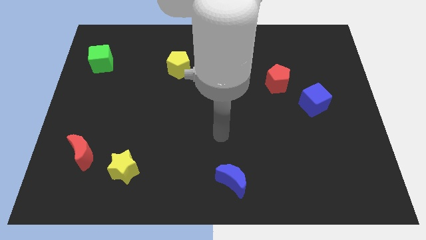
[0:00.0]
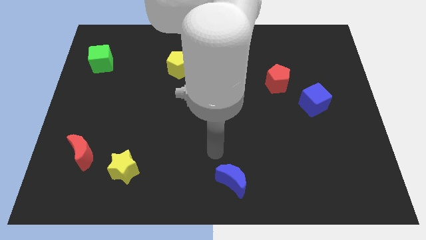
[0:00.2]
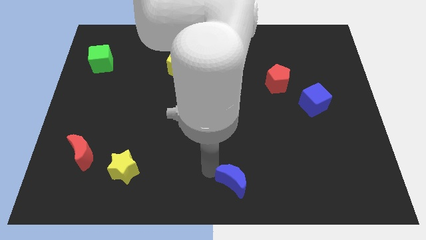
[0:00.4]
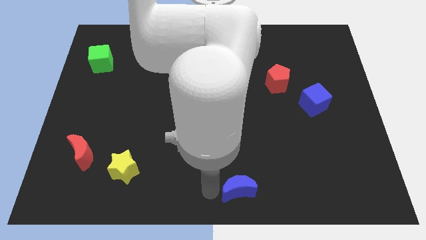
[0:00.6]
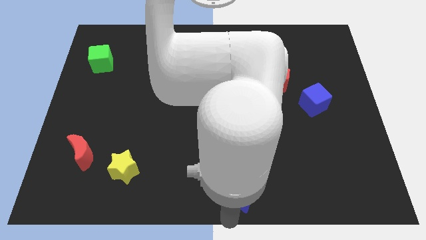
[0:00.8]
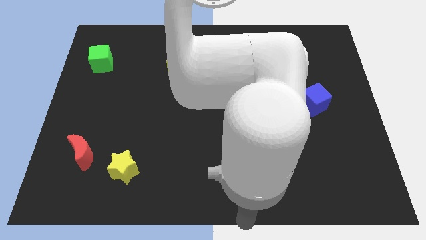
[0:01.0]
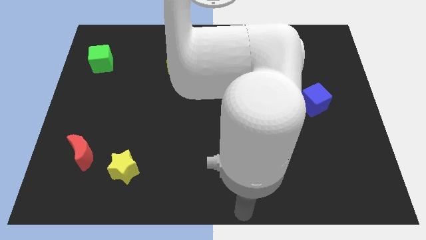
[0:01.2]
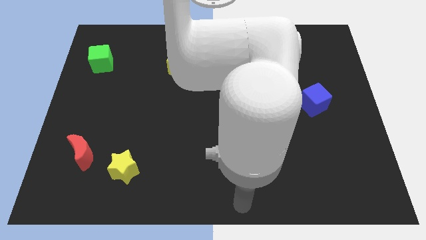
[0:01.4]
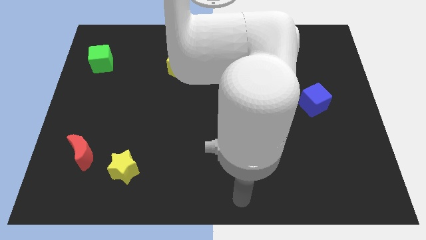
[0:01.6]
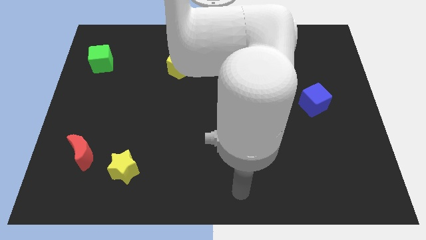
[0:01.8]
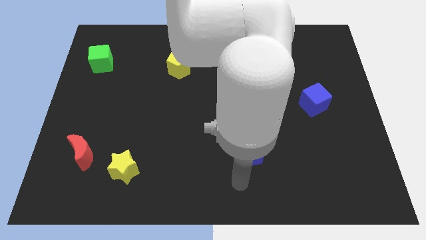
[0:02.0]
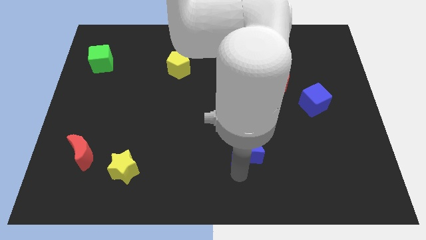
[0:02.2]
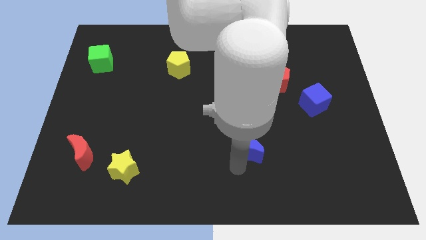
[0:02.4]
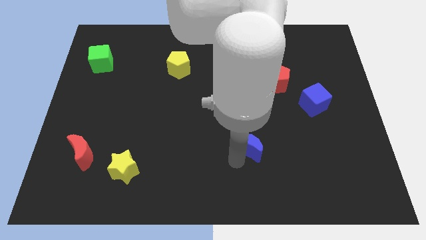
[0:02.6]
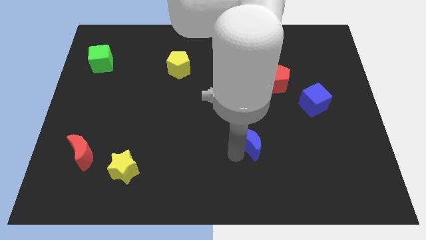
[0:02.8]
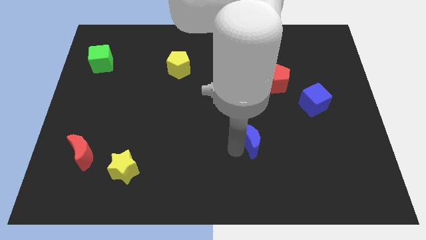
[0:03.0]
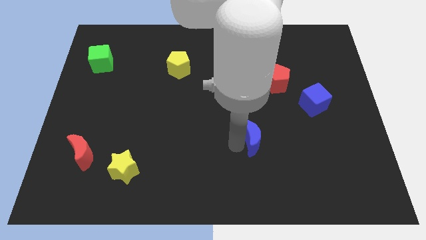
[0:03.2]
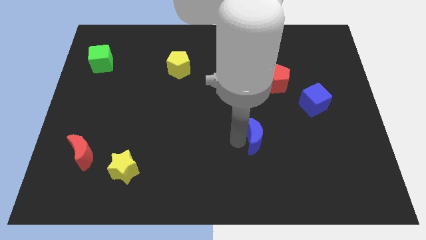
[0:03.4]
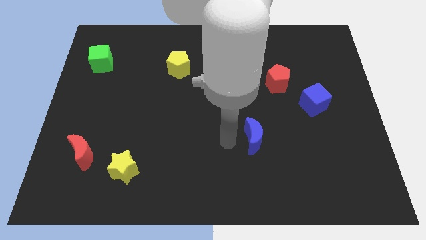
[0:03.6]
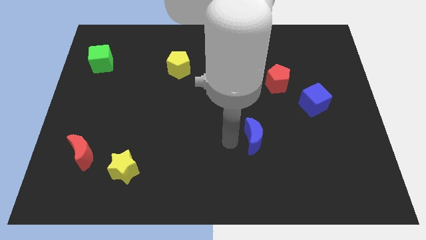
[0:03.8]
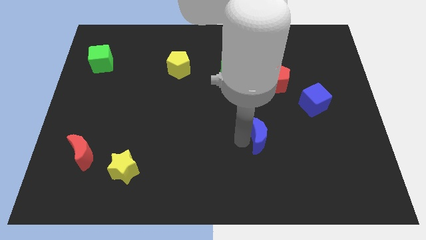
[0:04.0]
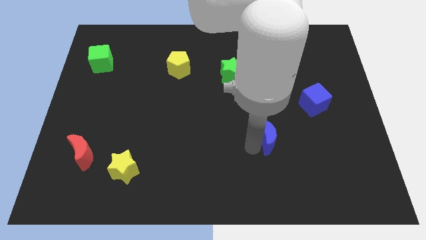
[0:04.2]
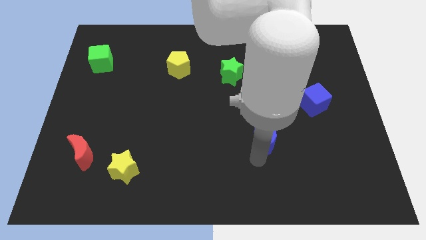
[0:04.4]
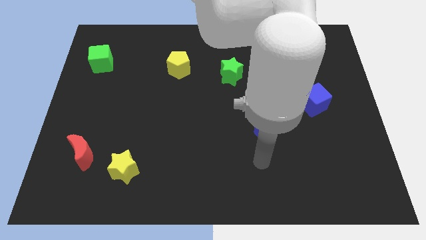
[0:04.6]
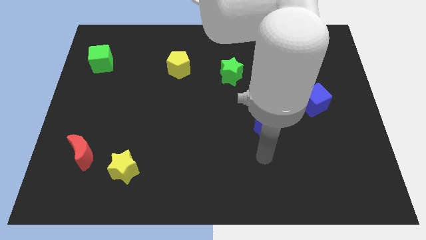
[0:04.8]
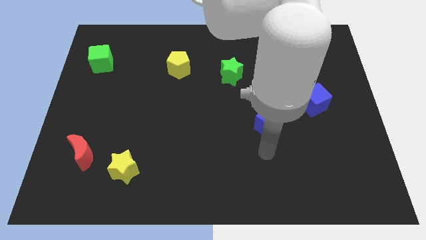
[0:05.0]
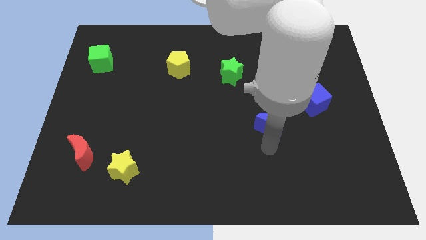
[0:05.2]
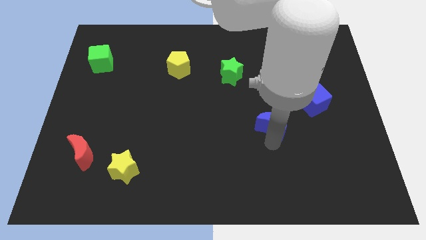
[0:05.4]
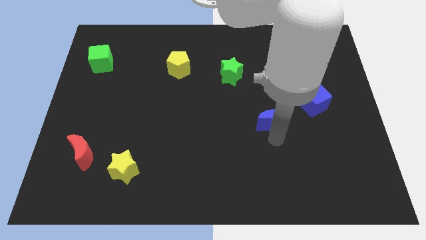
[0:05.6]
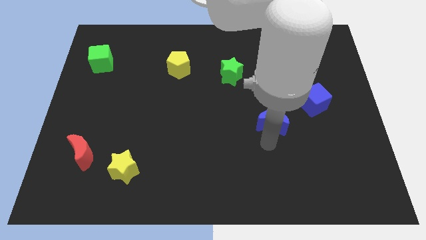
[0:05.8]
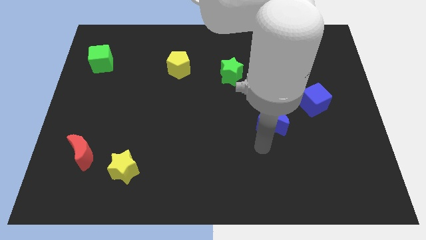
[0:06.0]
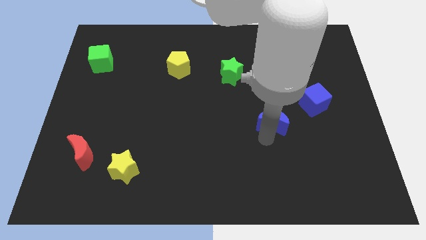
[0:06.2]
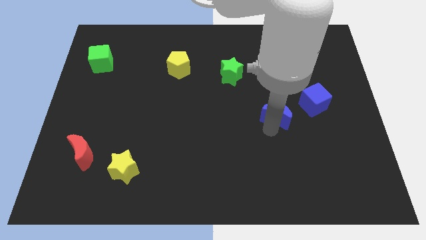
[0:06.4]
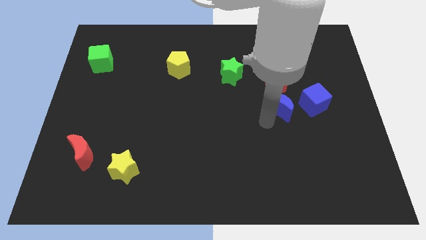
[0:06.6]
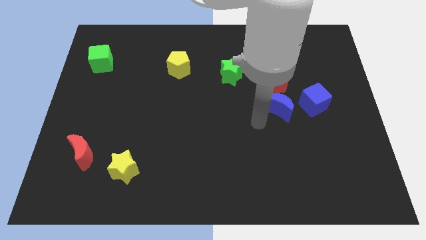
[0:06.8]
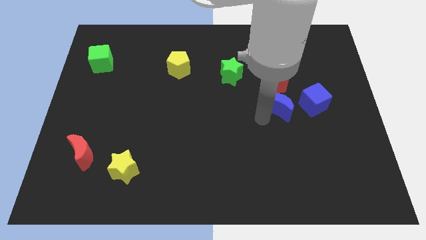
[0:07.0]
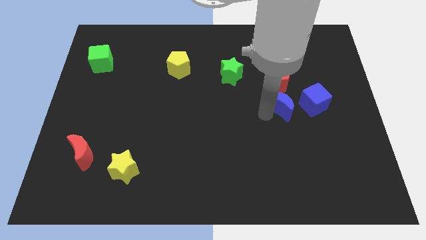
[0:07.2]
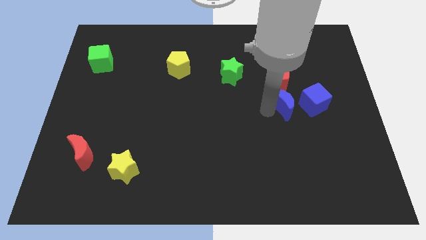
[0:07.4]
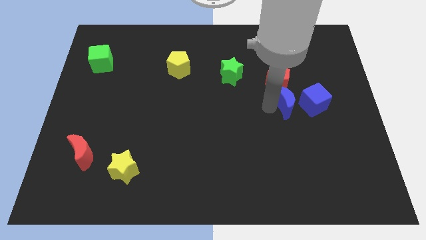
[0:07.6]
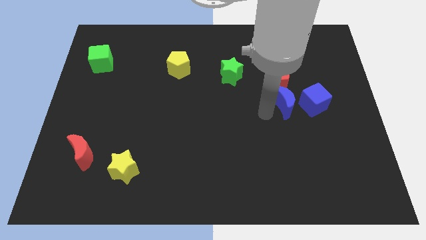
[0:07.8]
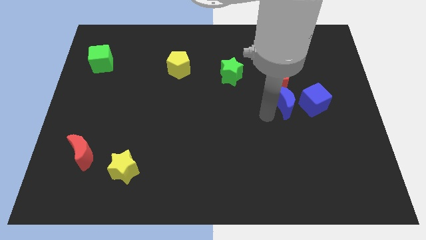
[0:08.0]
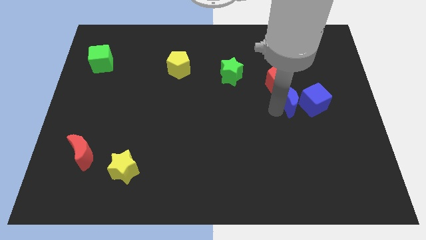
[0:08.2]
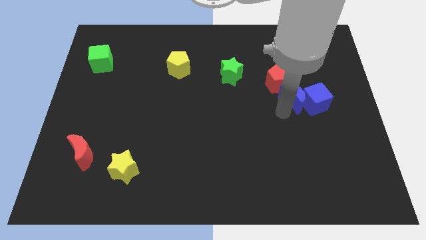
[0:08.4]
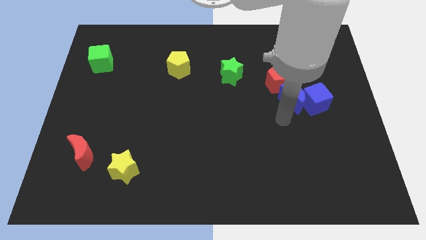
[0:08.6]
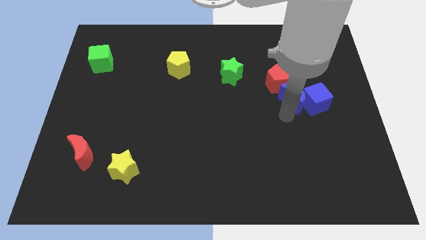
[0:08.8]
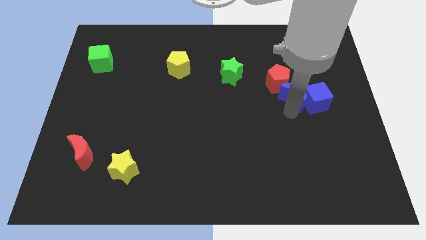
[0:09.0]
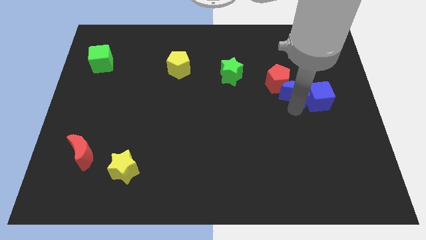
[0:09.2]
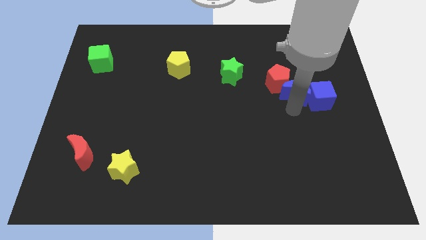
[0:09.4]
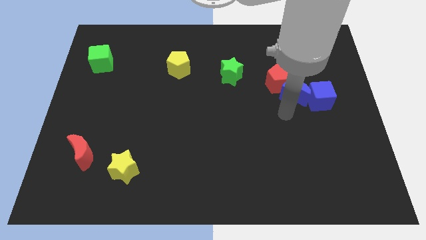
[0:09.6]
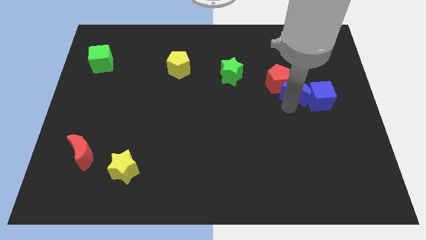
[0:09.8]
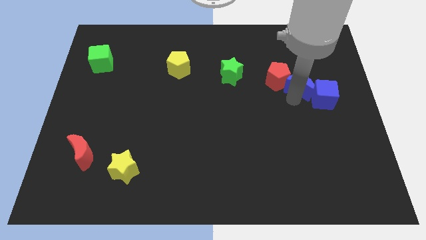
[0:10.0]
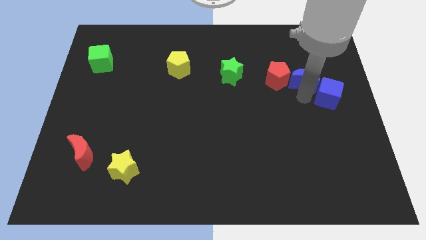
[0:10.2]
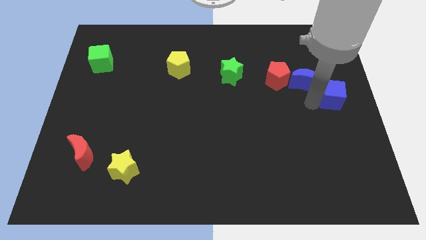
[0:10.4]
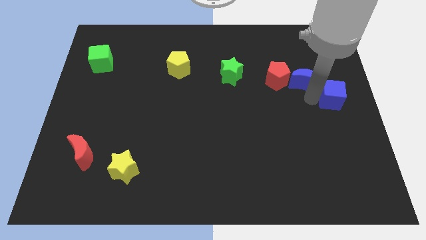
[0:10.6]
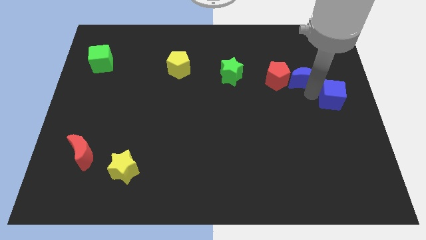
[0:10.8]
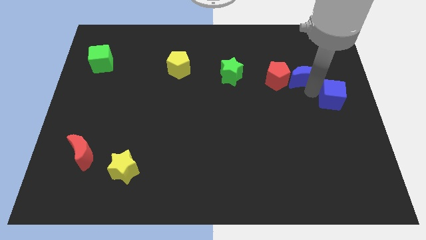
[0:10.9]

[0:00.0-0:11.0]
put the blue moon diagonally up and to the right of the red pentagon

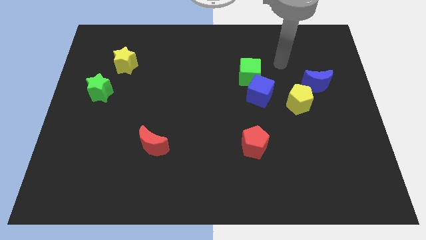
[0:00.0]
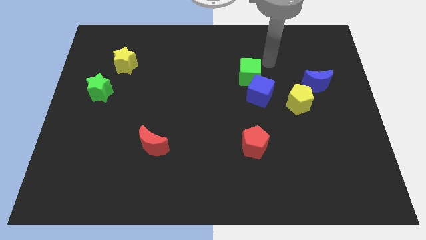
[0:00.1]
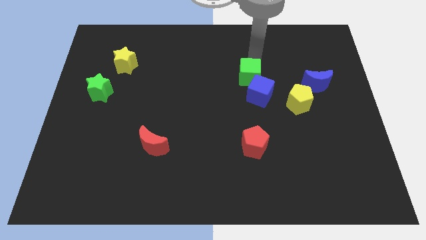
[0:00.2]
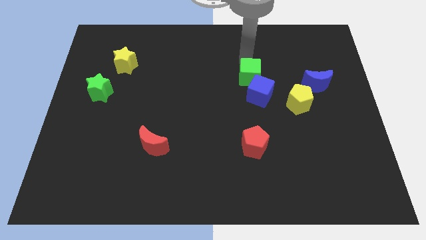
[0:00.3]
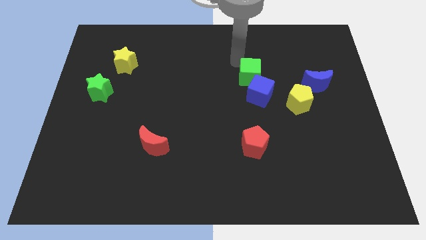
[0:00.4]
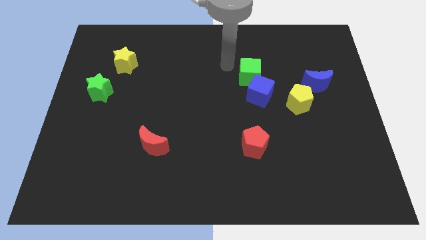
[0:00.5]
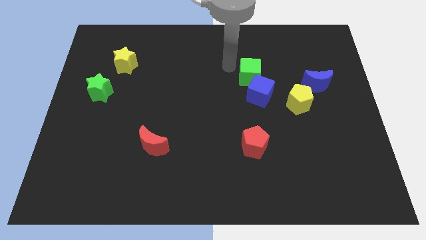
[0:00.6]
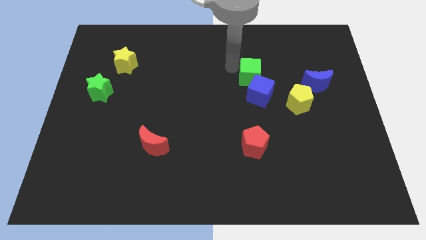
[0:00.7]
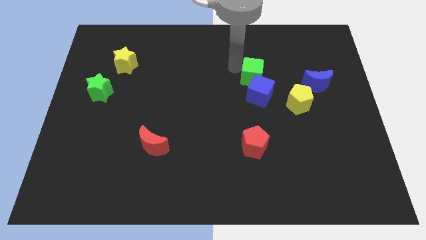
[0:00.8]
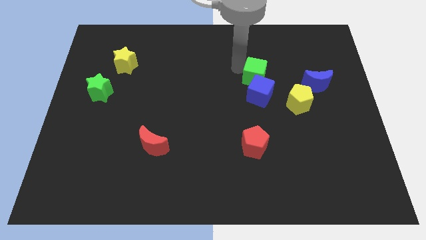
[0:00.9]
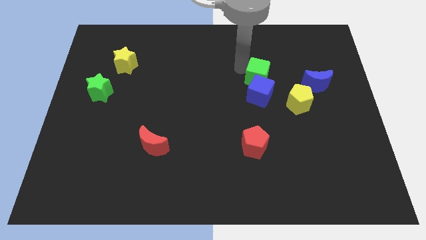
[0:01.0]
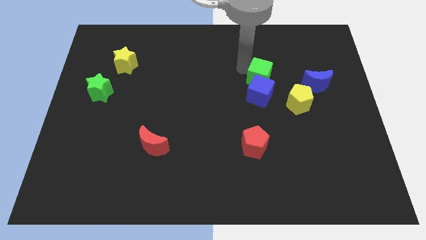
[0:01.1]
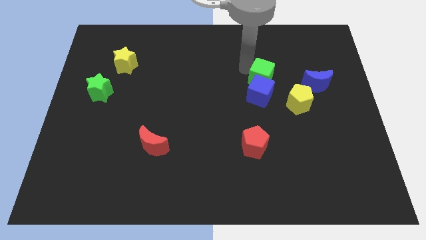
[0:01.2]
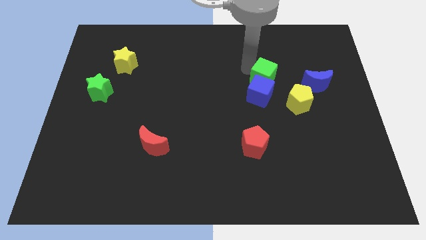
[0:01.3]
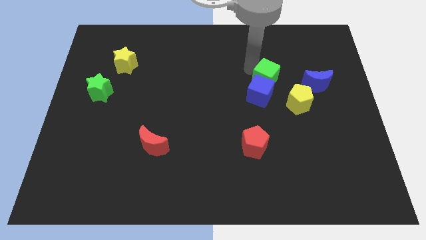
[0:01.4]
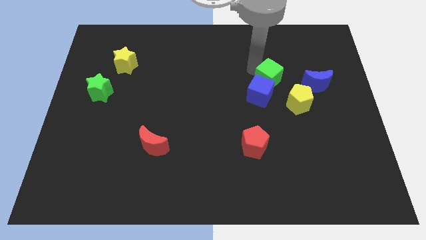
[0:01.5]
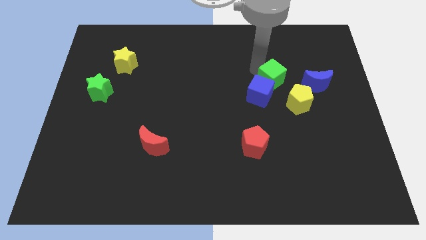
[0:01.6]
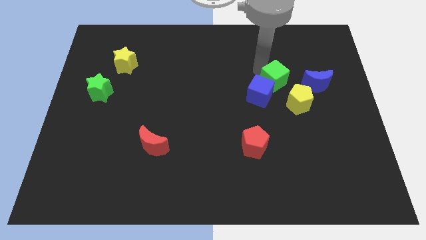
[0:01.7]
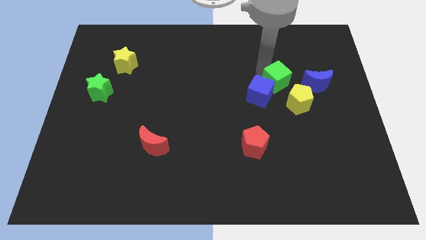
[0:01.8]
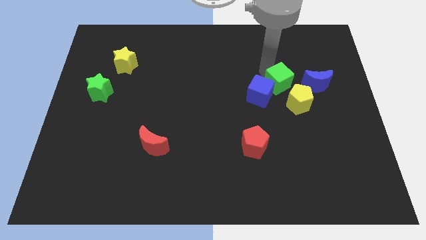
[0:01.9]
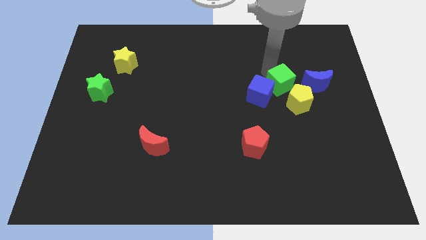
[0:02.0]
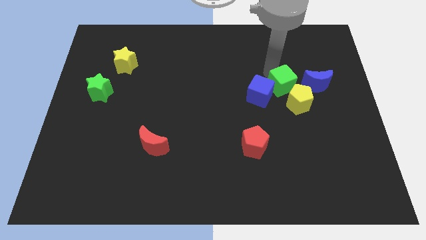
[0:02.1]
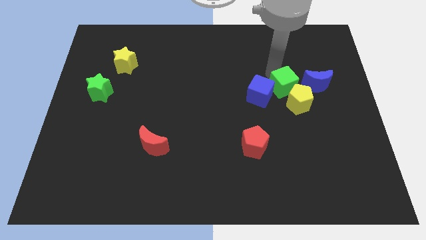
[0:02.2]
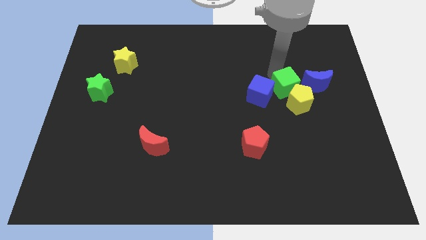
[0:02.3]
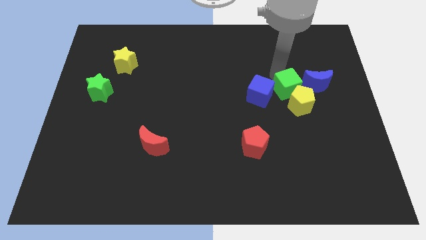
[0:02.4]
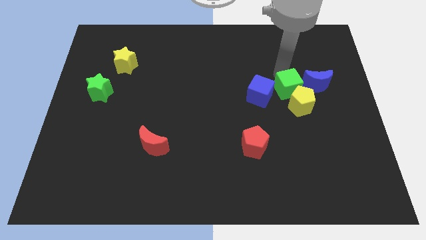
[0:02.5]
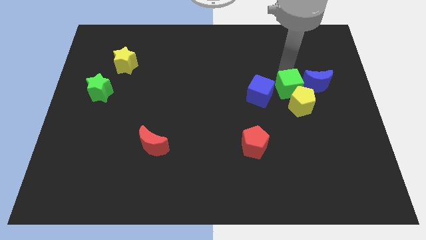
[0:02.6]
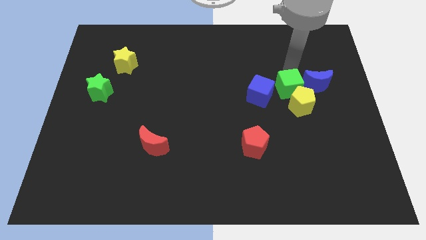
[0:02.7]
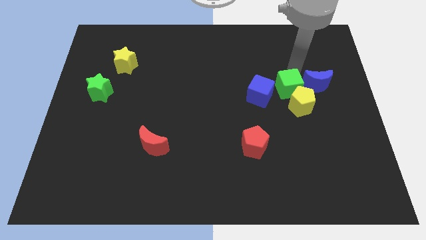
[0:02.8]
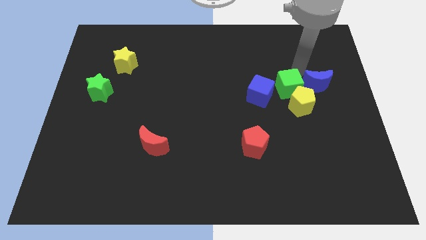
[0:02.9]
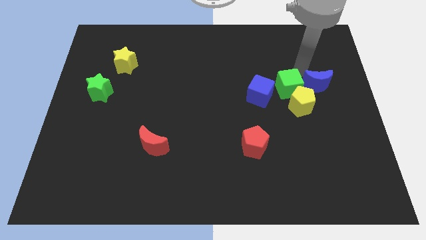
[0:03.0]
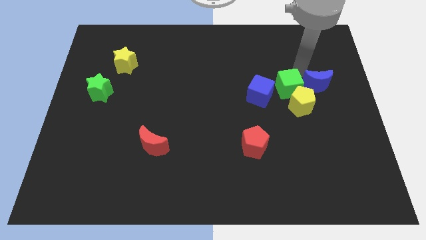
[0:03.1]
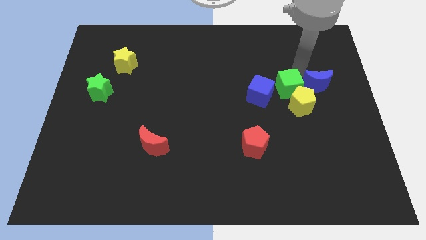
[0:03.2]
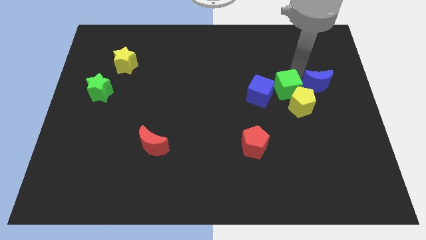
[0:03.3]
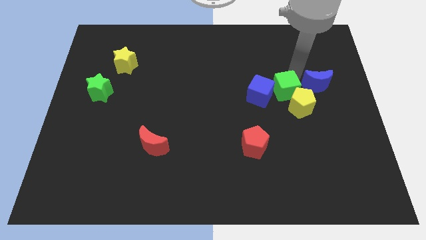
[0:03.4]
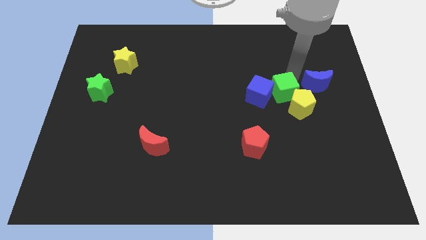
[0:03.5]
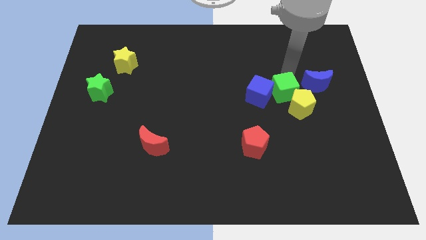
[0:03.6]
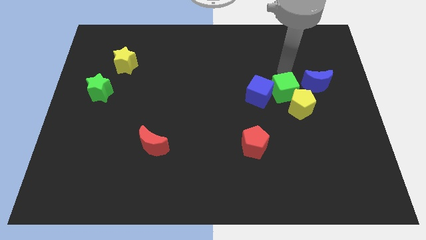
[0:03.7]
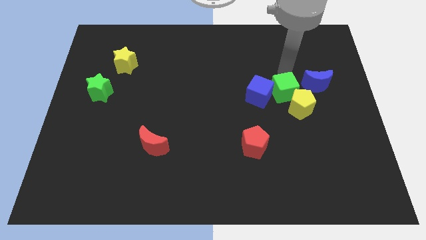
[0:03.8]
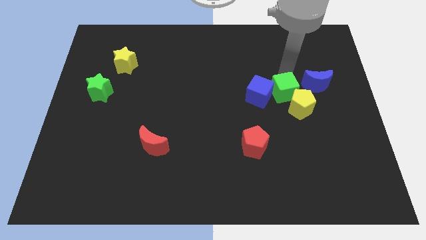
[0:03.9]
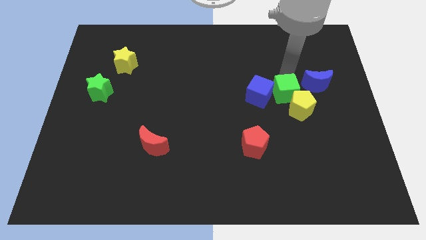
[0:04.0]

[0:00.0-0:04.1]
push the green cube to the bottom right of the blue cube
